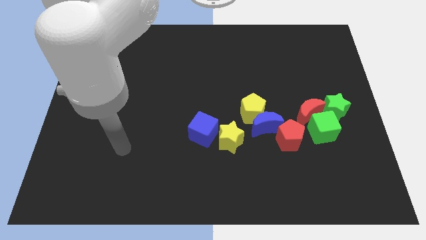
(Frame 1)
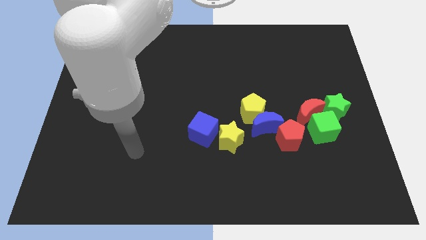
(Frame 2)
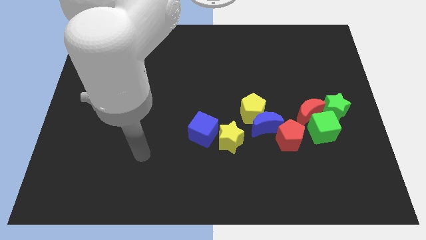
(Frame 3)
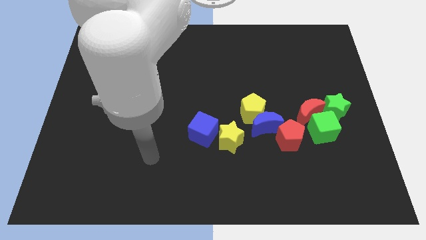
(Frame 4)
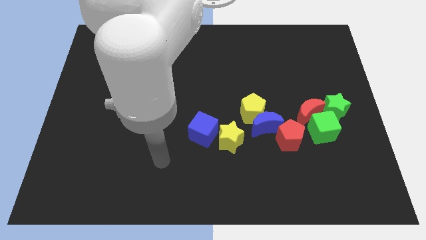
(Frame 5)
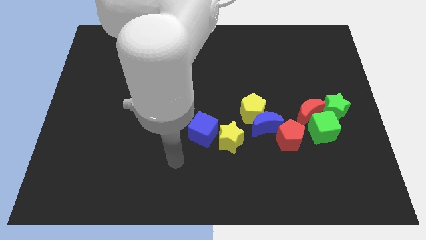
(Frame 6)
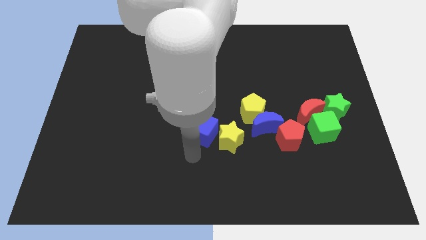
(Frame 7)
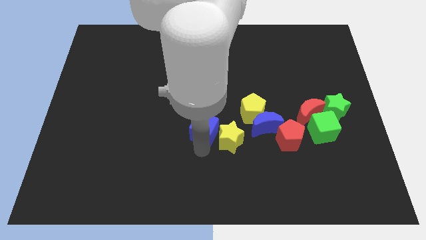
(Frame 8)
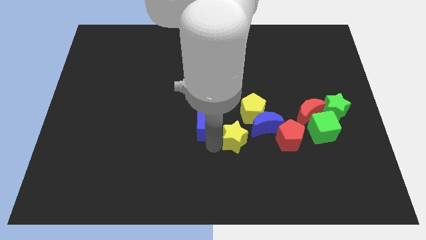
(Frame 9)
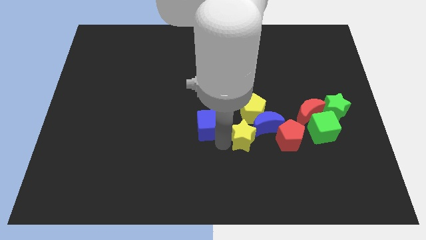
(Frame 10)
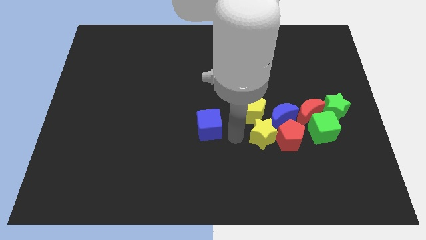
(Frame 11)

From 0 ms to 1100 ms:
pull the blue cube apart from the yellow star

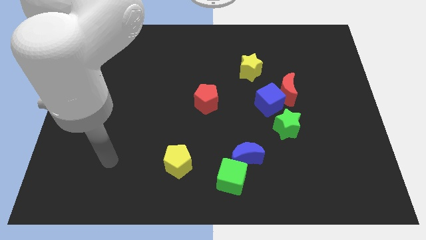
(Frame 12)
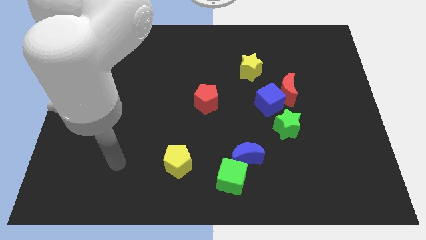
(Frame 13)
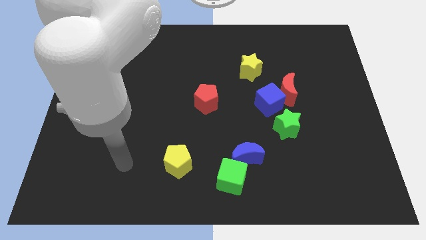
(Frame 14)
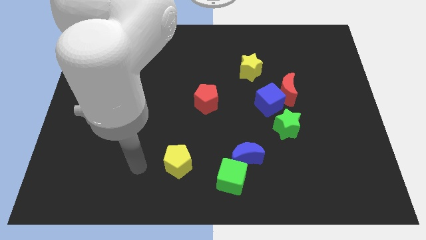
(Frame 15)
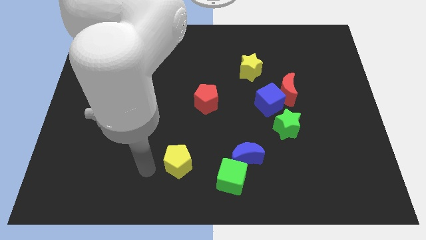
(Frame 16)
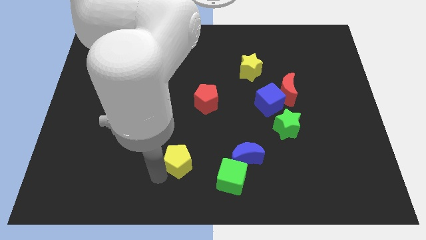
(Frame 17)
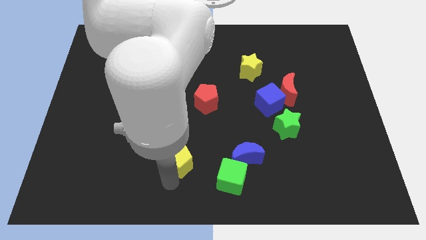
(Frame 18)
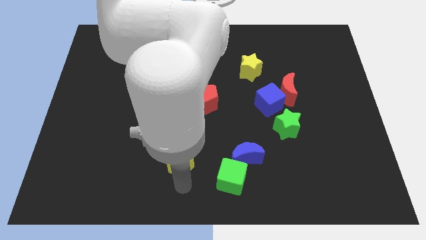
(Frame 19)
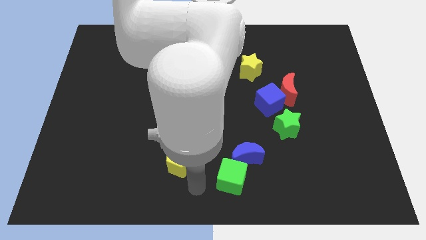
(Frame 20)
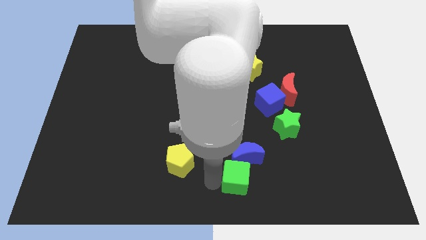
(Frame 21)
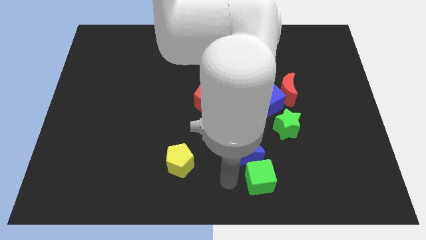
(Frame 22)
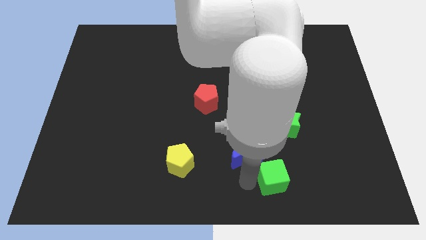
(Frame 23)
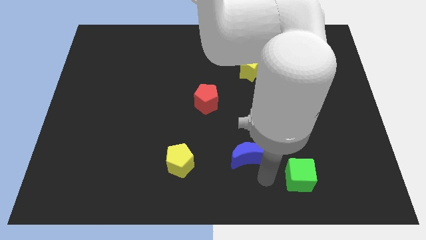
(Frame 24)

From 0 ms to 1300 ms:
pull the blue moon apart from the green cube

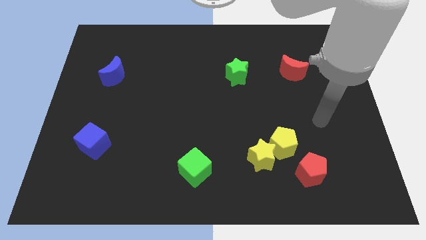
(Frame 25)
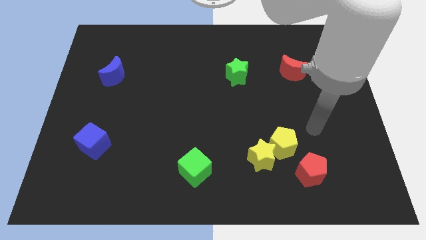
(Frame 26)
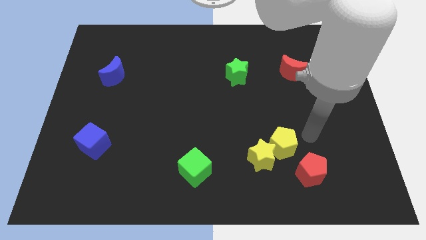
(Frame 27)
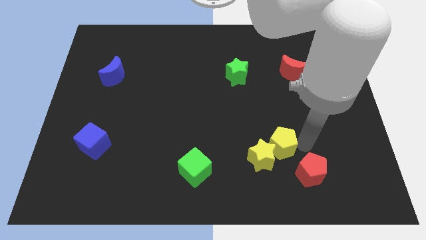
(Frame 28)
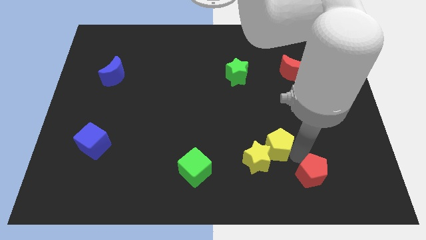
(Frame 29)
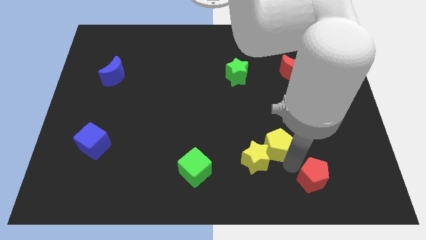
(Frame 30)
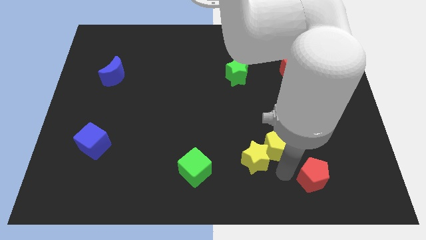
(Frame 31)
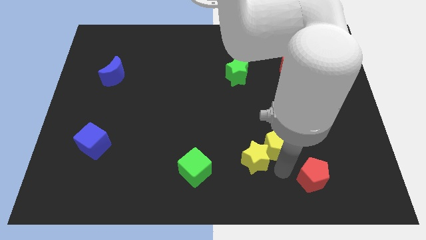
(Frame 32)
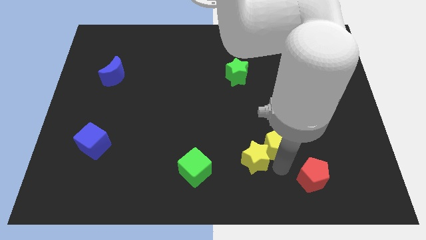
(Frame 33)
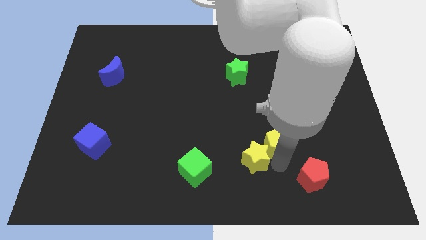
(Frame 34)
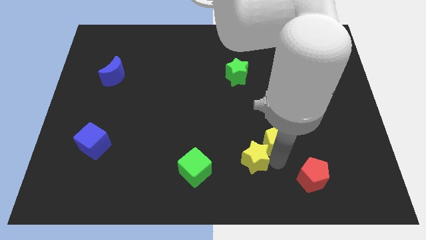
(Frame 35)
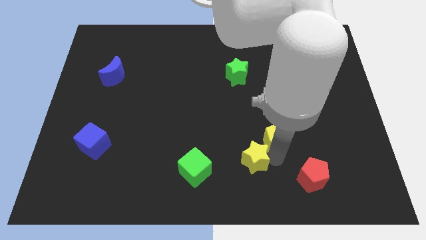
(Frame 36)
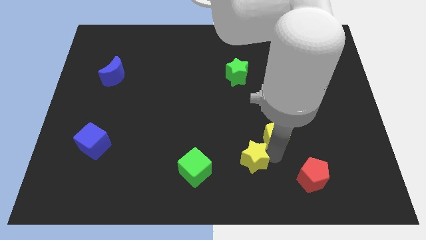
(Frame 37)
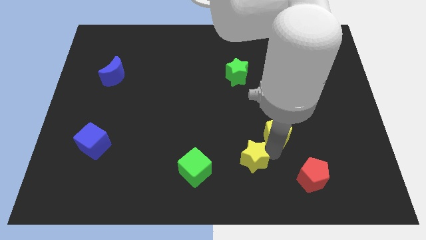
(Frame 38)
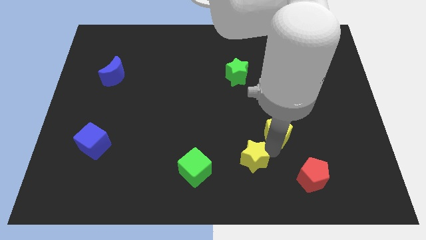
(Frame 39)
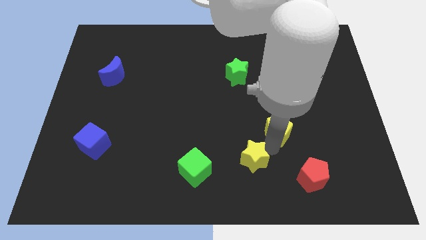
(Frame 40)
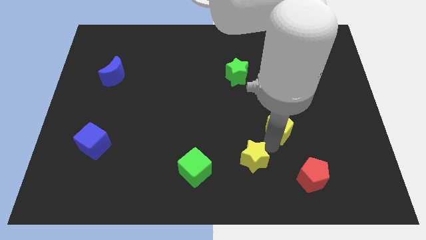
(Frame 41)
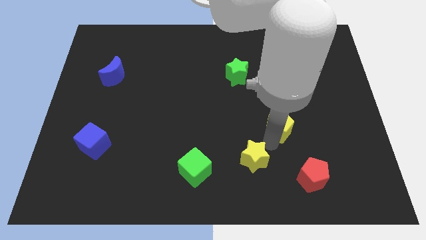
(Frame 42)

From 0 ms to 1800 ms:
move the yellow pentagon away from the yellow star and red pentagon

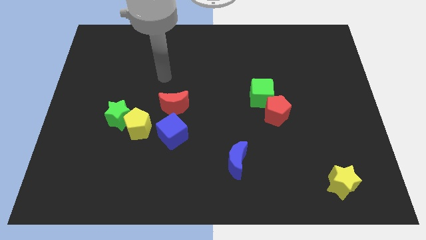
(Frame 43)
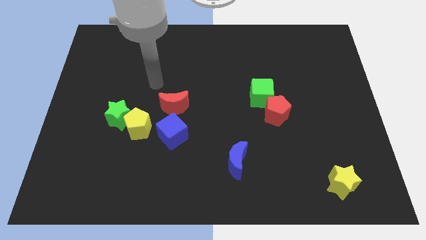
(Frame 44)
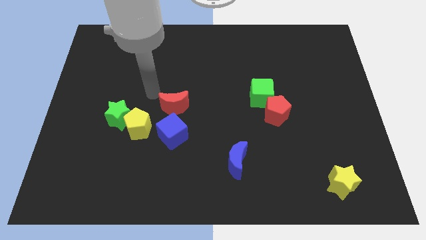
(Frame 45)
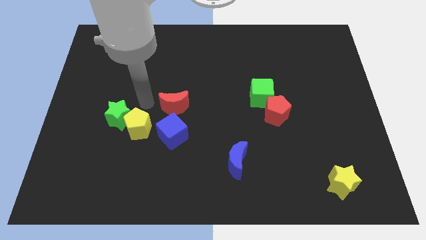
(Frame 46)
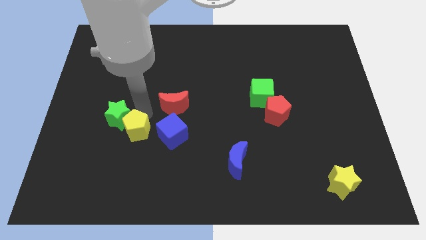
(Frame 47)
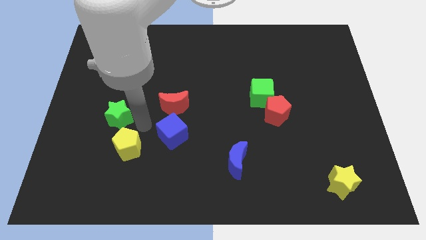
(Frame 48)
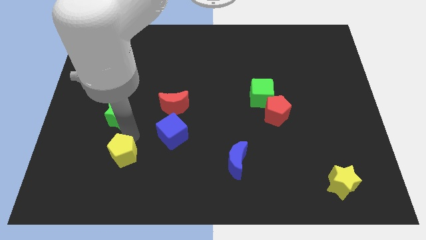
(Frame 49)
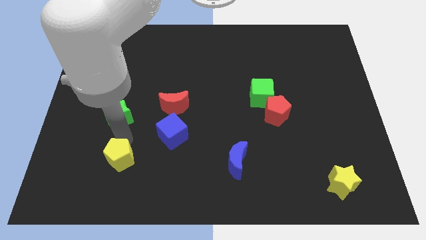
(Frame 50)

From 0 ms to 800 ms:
move the green star away from the yellow pentagon

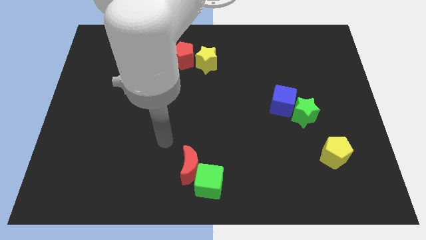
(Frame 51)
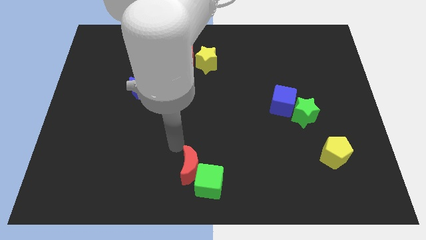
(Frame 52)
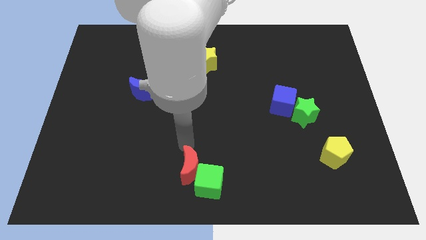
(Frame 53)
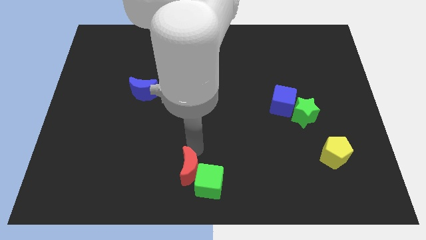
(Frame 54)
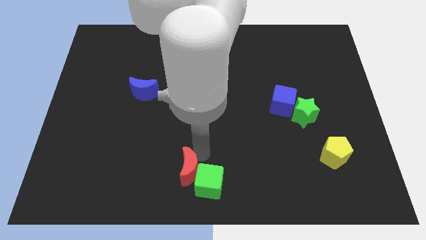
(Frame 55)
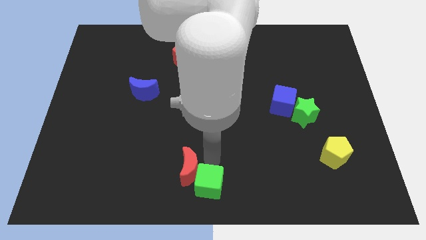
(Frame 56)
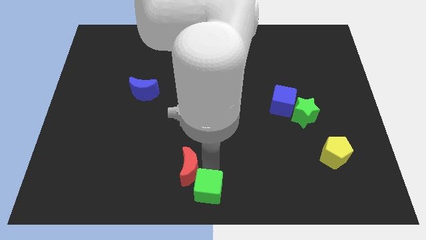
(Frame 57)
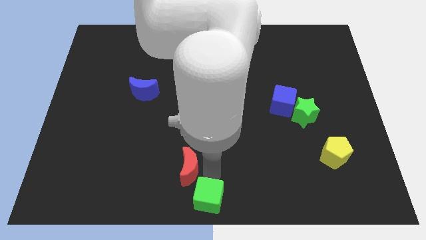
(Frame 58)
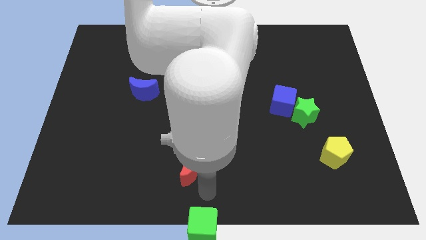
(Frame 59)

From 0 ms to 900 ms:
separate the red moon from the green cube

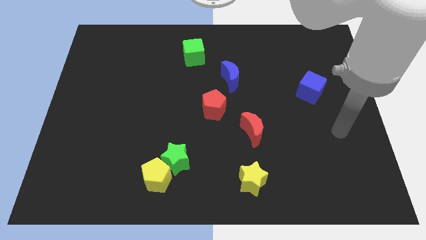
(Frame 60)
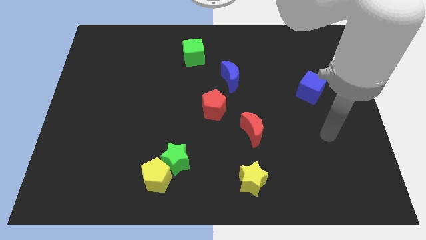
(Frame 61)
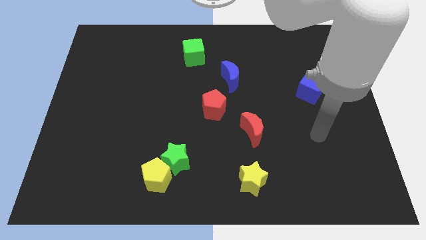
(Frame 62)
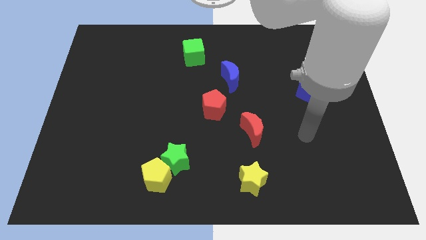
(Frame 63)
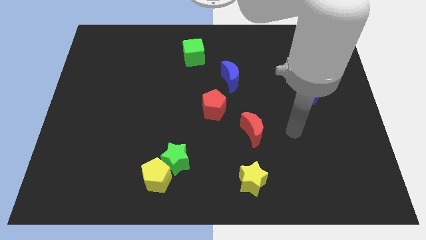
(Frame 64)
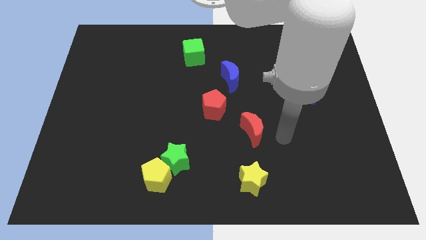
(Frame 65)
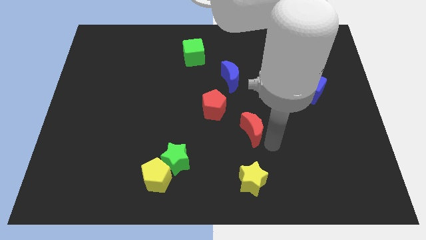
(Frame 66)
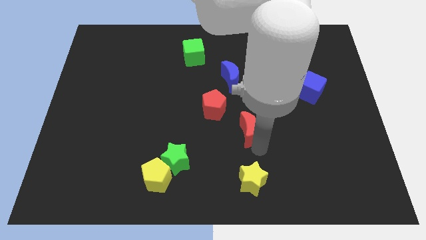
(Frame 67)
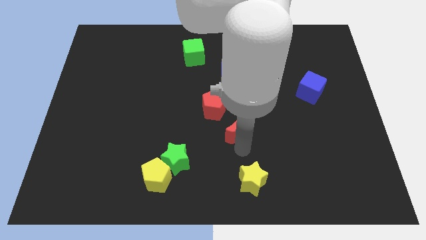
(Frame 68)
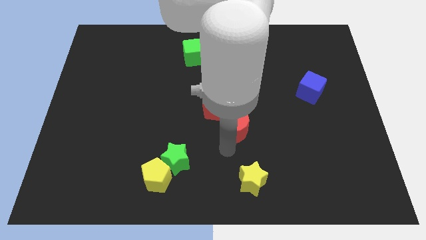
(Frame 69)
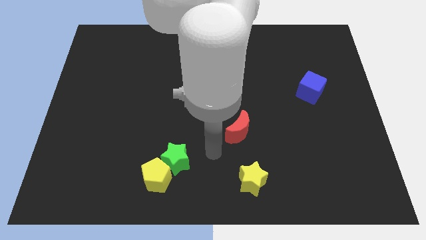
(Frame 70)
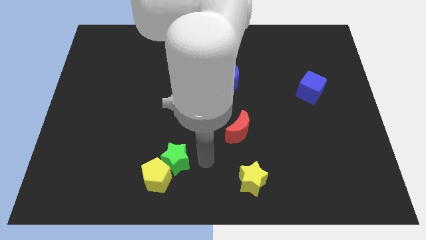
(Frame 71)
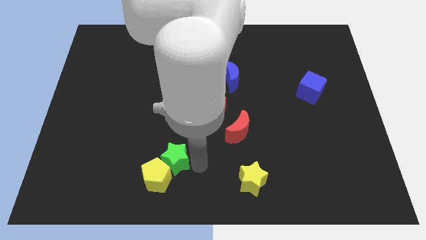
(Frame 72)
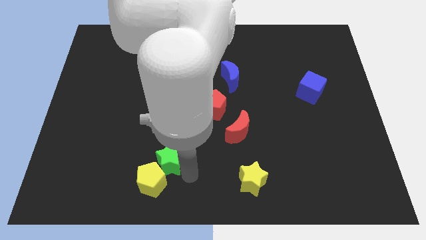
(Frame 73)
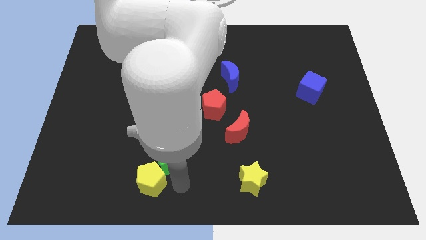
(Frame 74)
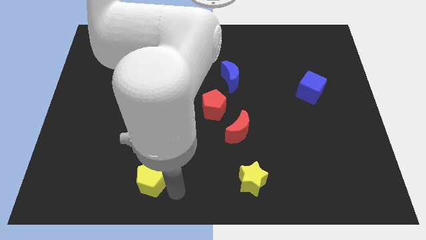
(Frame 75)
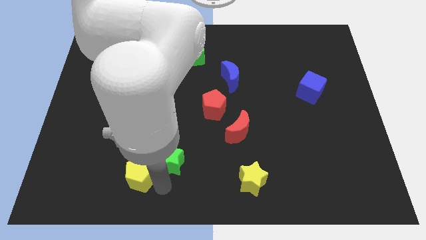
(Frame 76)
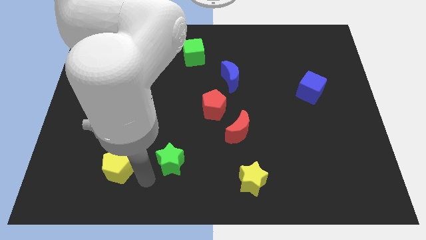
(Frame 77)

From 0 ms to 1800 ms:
pull the green star apart from the yellow pentagon

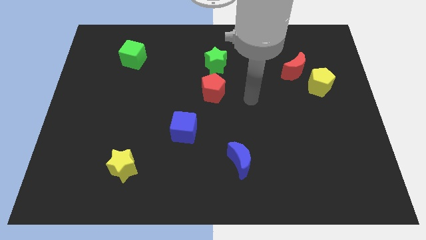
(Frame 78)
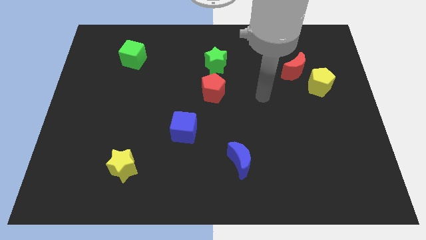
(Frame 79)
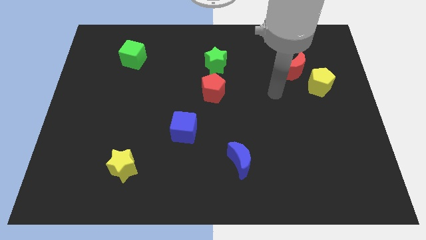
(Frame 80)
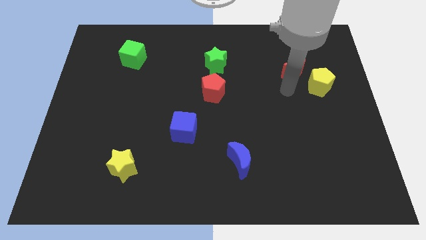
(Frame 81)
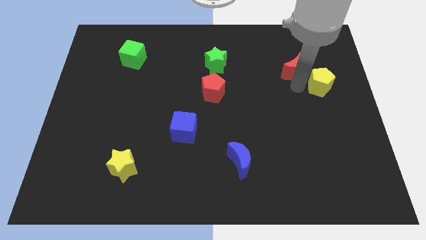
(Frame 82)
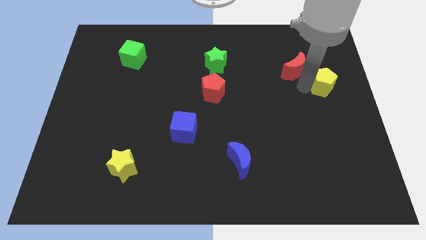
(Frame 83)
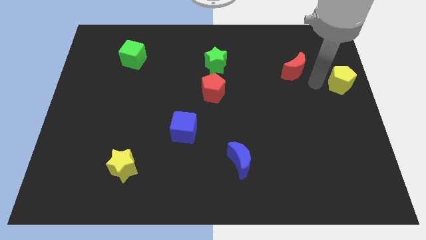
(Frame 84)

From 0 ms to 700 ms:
move the red moon away from the yellow pentagon

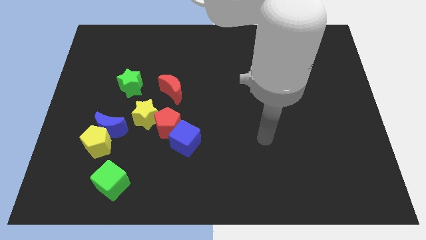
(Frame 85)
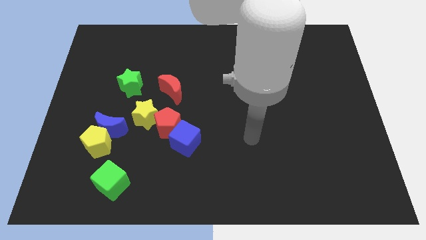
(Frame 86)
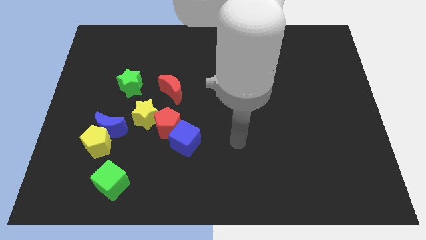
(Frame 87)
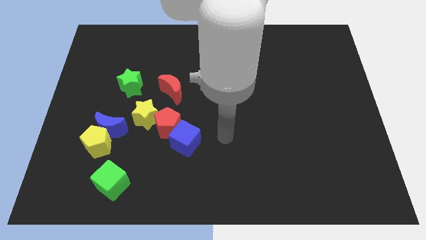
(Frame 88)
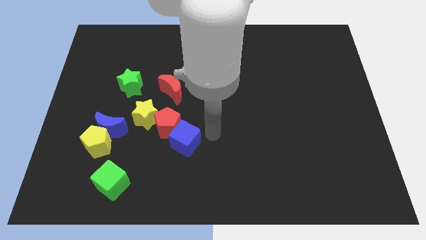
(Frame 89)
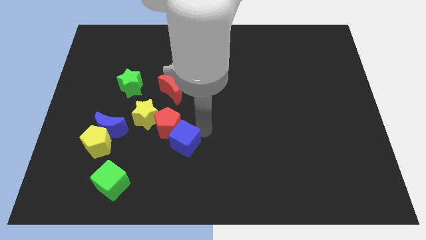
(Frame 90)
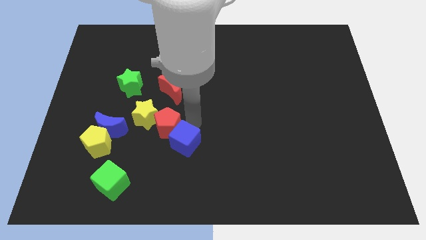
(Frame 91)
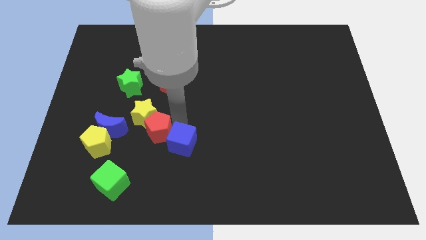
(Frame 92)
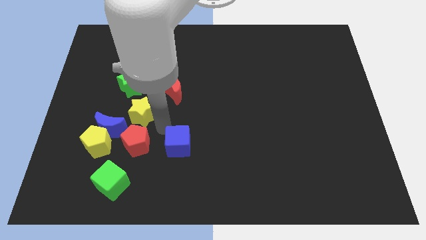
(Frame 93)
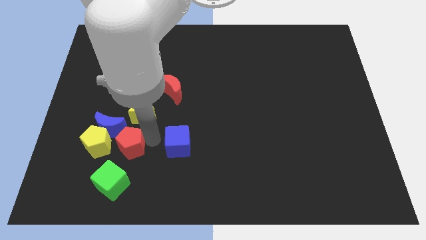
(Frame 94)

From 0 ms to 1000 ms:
separate the blue cube from the red pentagon
